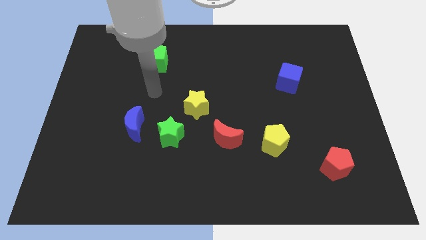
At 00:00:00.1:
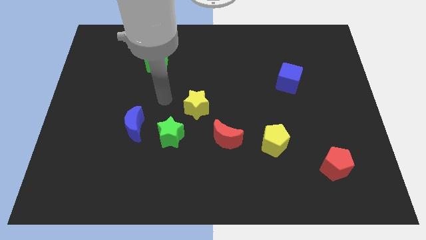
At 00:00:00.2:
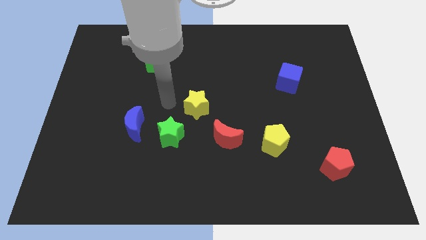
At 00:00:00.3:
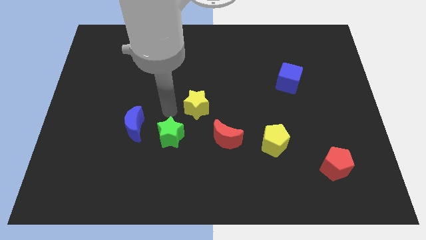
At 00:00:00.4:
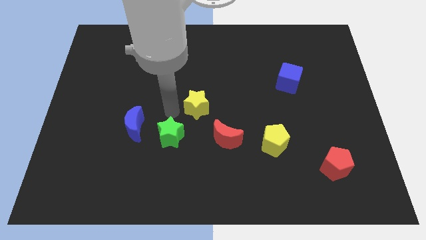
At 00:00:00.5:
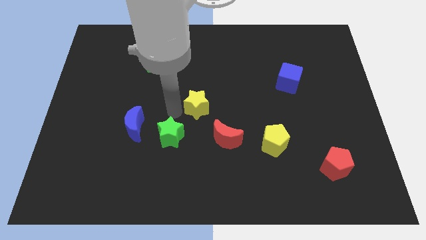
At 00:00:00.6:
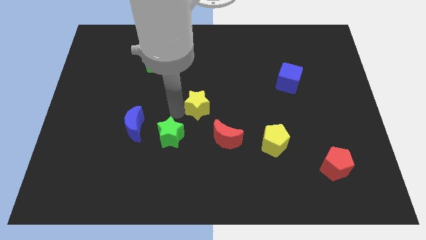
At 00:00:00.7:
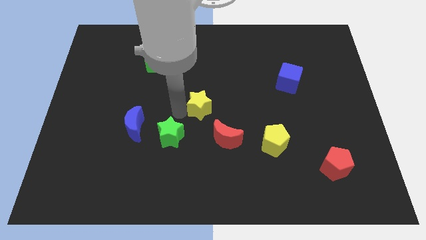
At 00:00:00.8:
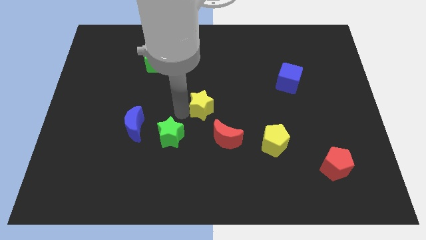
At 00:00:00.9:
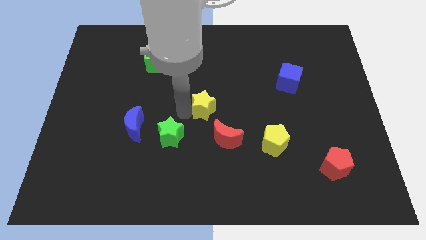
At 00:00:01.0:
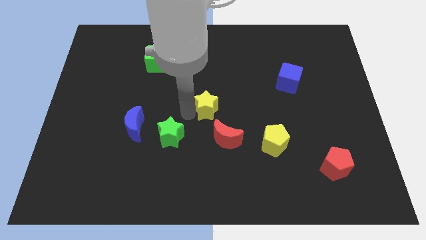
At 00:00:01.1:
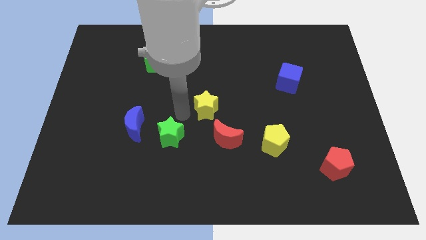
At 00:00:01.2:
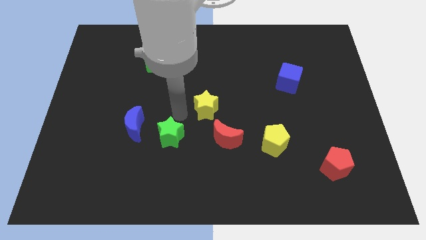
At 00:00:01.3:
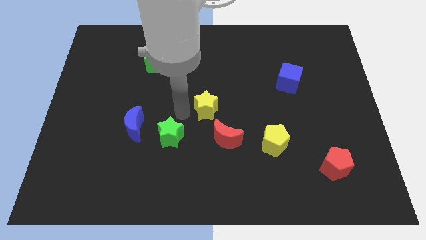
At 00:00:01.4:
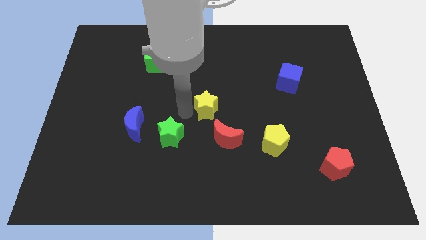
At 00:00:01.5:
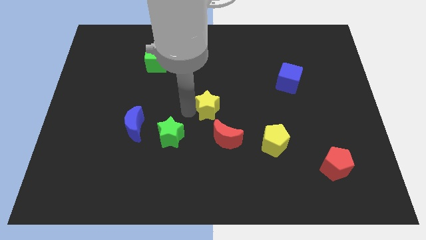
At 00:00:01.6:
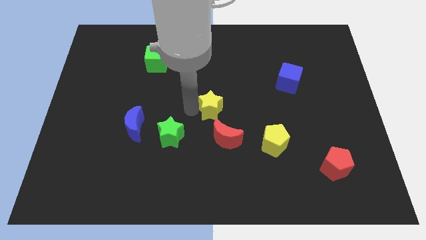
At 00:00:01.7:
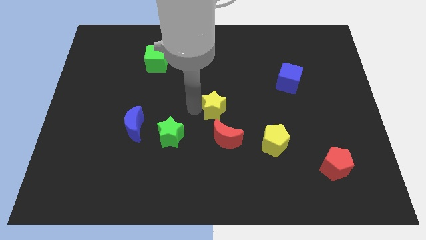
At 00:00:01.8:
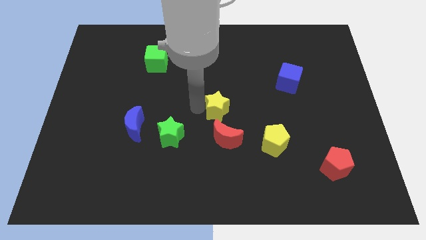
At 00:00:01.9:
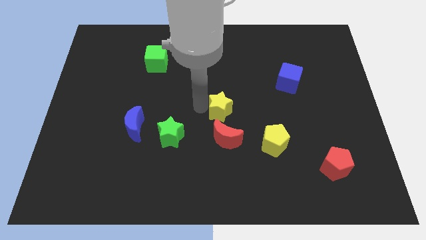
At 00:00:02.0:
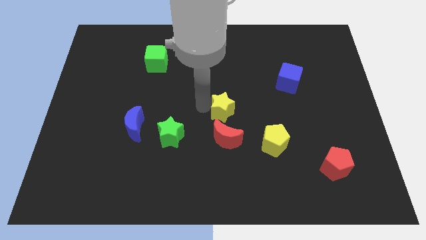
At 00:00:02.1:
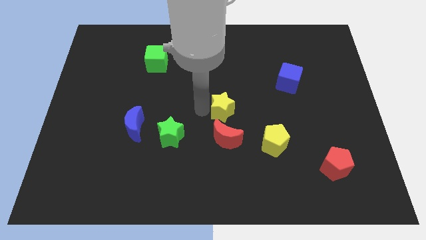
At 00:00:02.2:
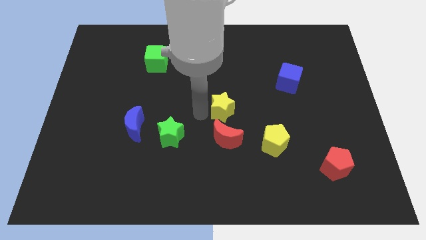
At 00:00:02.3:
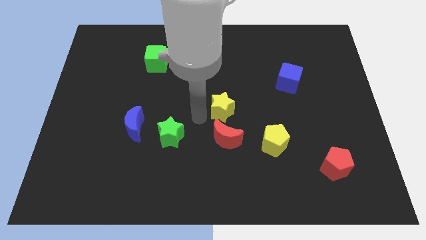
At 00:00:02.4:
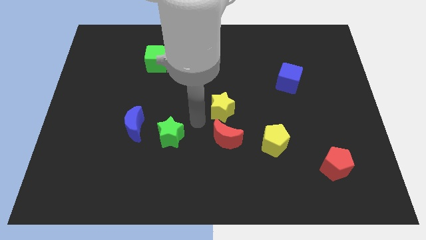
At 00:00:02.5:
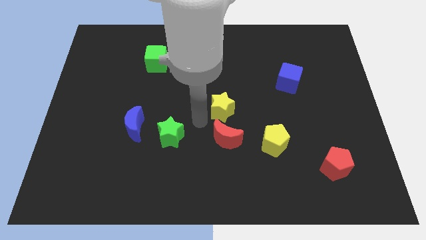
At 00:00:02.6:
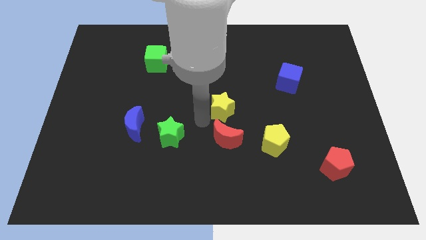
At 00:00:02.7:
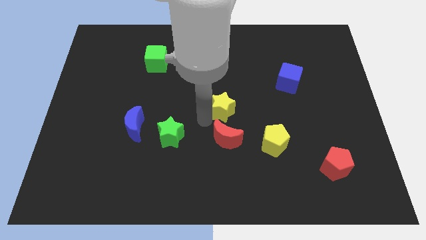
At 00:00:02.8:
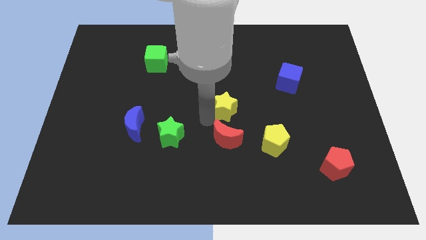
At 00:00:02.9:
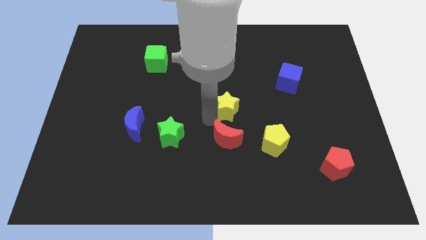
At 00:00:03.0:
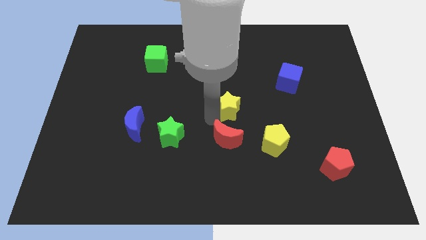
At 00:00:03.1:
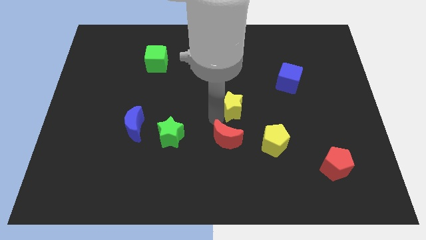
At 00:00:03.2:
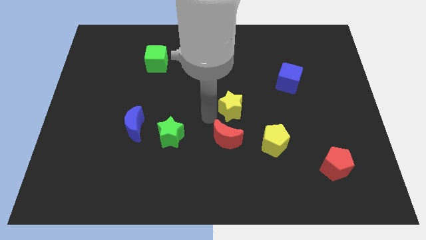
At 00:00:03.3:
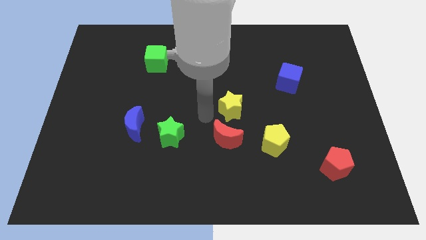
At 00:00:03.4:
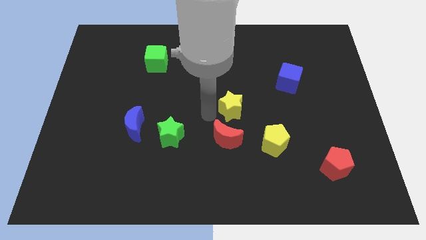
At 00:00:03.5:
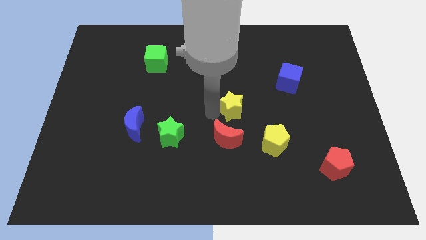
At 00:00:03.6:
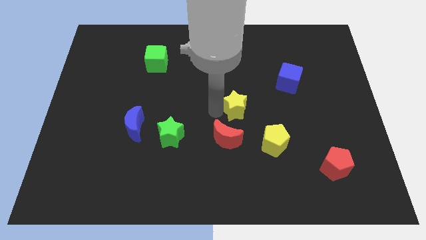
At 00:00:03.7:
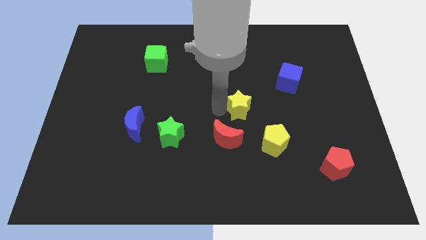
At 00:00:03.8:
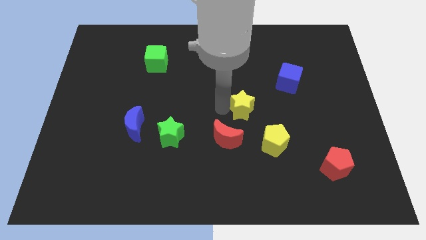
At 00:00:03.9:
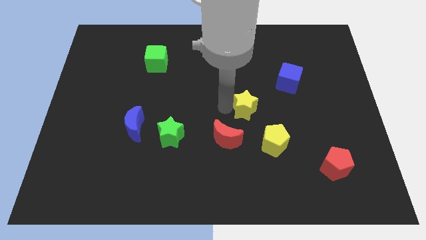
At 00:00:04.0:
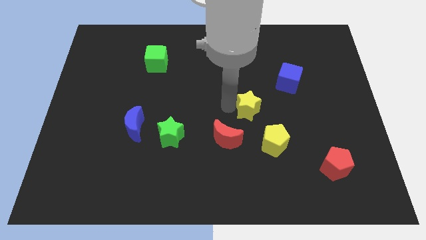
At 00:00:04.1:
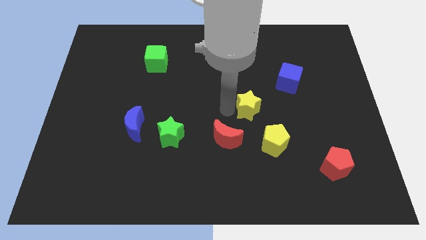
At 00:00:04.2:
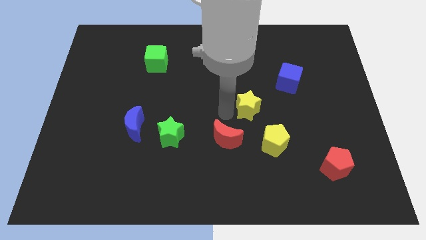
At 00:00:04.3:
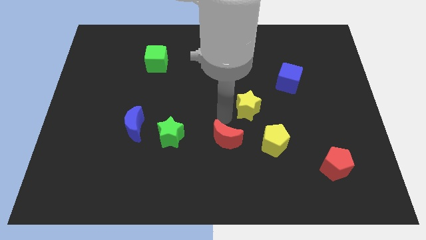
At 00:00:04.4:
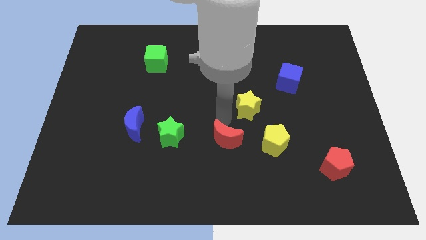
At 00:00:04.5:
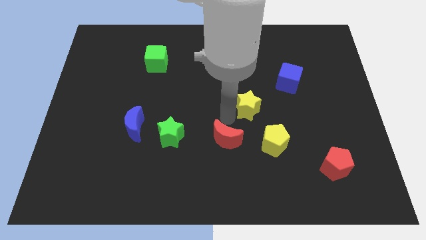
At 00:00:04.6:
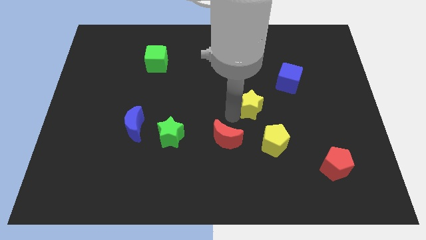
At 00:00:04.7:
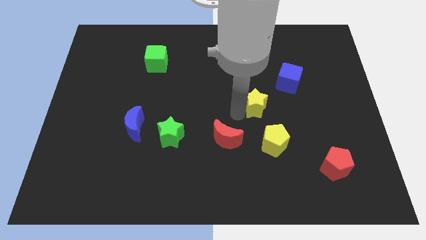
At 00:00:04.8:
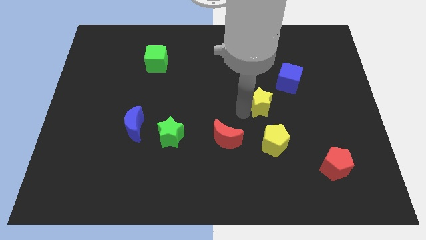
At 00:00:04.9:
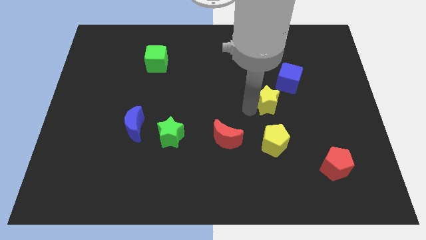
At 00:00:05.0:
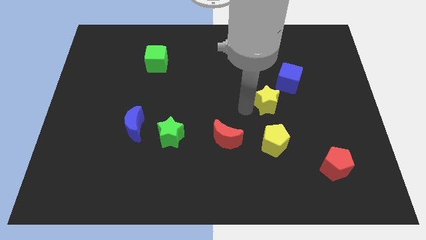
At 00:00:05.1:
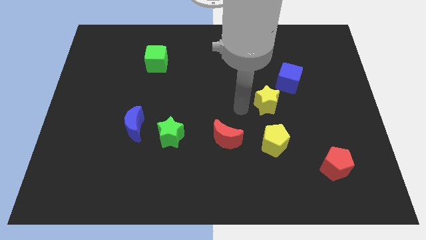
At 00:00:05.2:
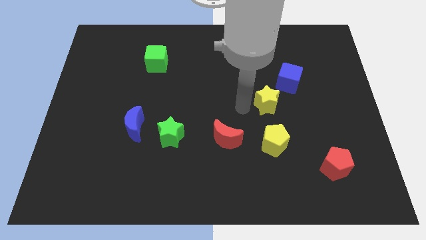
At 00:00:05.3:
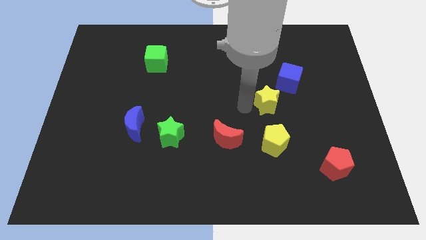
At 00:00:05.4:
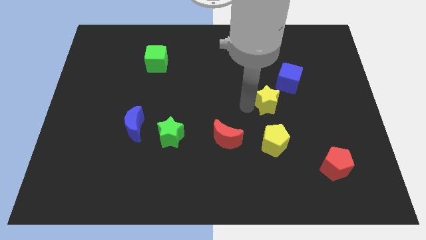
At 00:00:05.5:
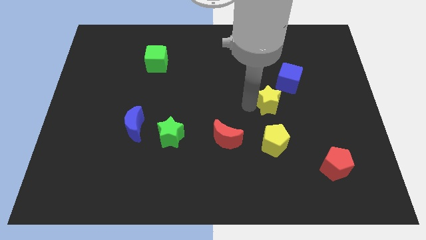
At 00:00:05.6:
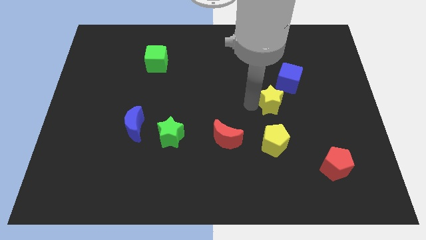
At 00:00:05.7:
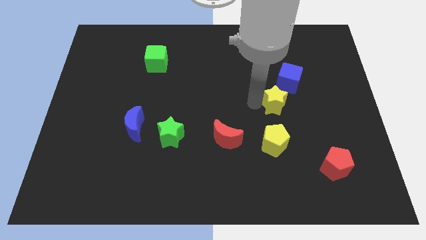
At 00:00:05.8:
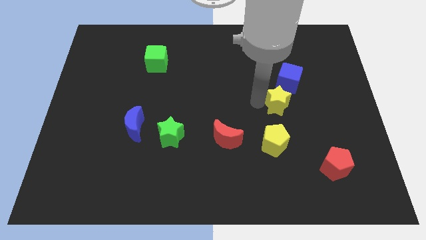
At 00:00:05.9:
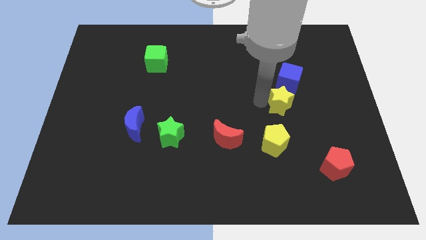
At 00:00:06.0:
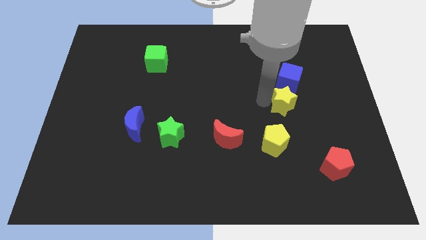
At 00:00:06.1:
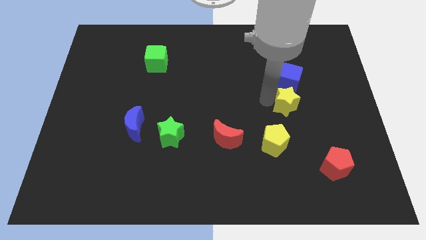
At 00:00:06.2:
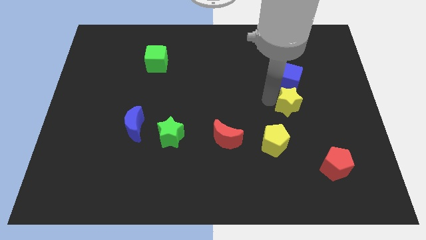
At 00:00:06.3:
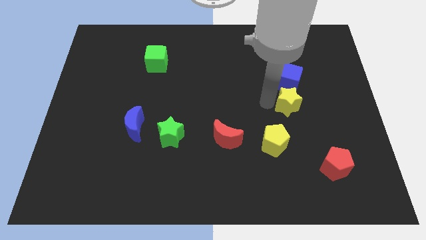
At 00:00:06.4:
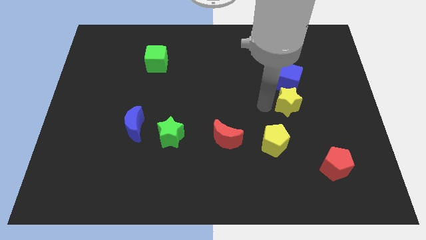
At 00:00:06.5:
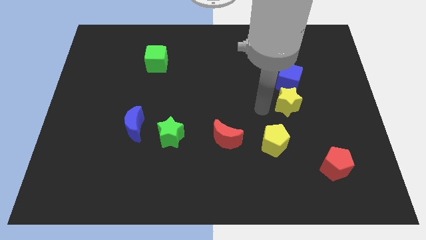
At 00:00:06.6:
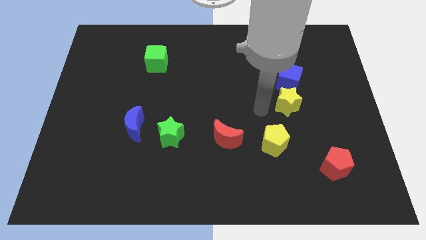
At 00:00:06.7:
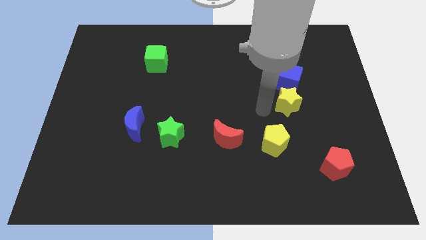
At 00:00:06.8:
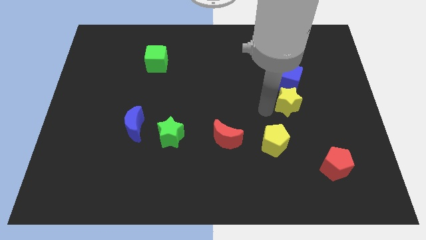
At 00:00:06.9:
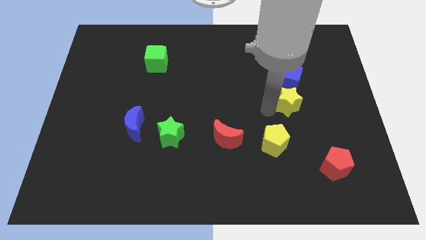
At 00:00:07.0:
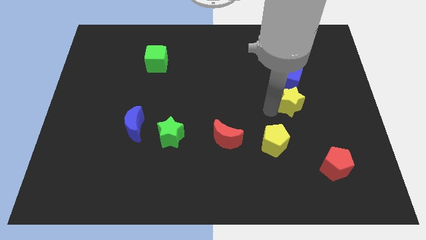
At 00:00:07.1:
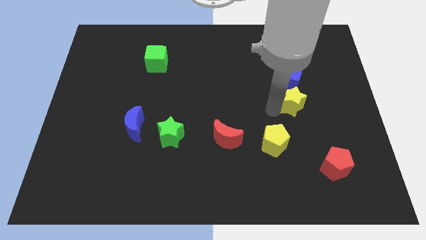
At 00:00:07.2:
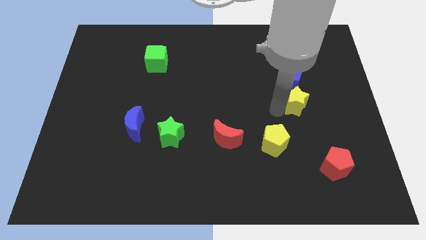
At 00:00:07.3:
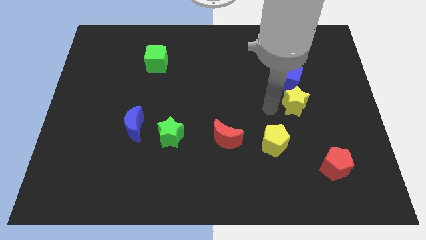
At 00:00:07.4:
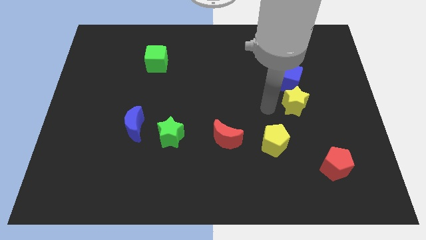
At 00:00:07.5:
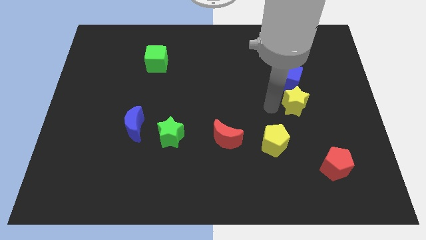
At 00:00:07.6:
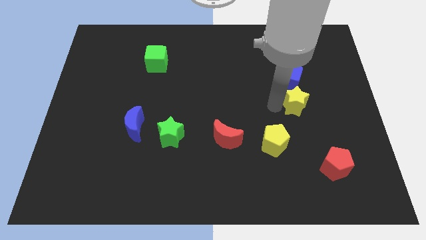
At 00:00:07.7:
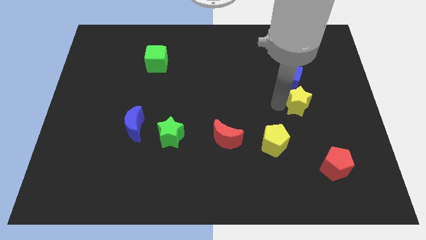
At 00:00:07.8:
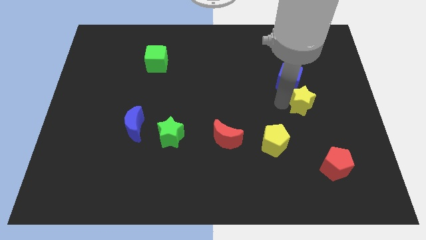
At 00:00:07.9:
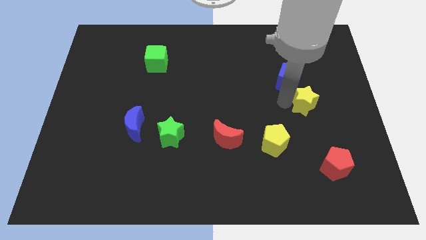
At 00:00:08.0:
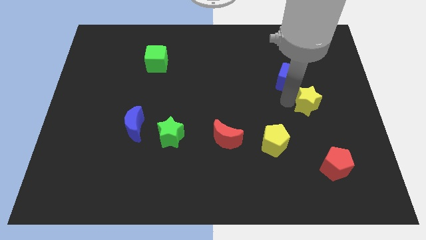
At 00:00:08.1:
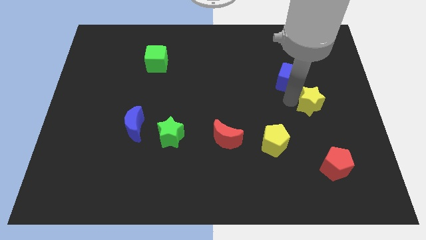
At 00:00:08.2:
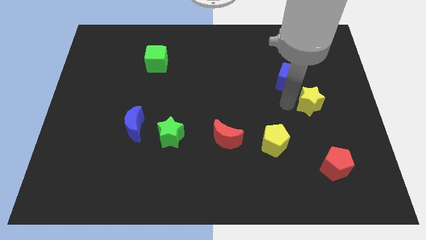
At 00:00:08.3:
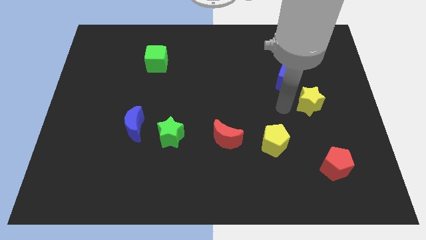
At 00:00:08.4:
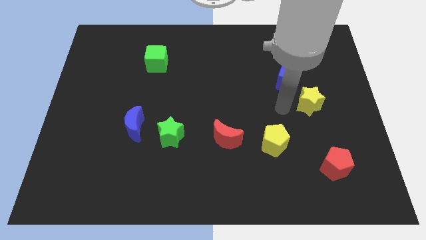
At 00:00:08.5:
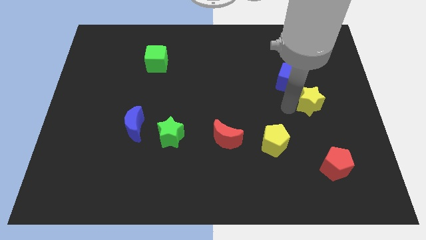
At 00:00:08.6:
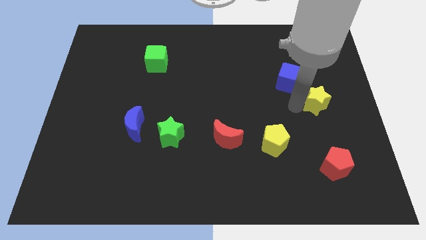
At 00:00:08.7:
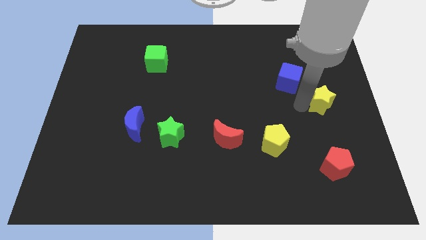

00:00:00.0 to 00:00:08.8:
push the yellow star to the center right
